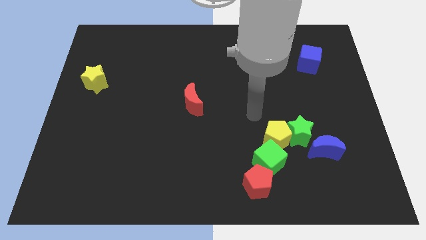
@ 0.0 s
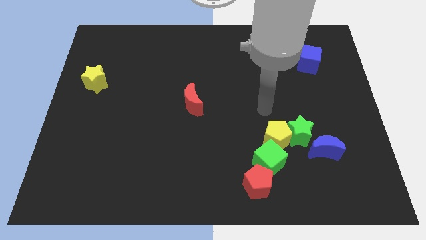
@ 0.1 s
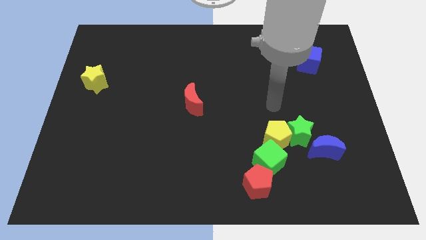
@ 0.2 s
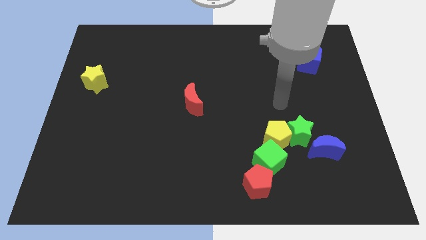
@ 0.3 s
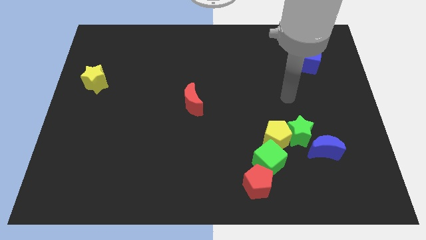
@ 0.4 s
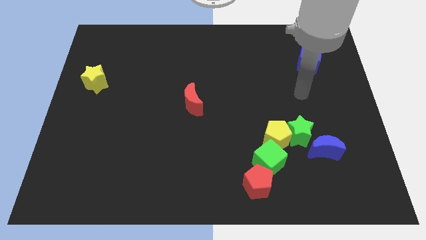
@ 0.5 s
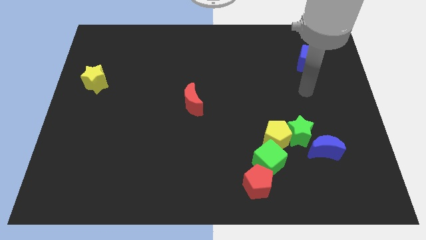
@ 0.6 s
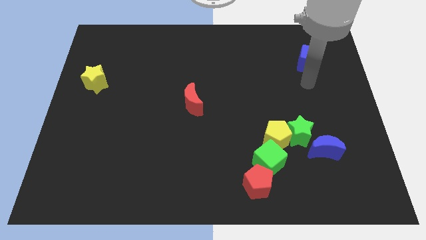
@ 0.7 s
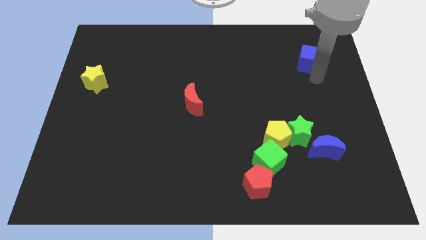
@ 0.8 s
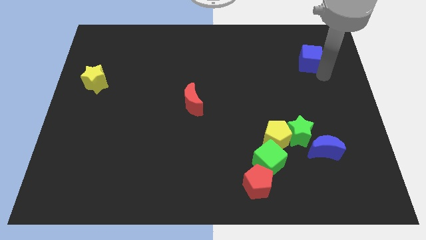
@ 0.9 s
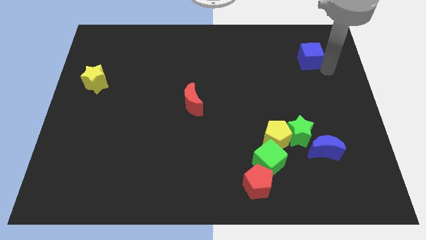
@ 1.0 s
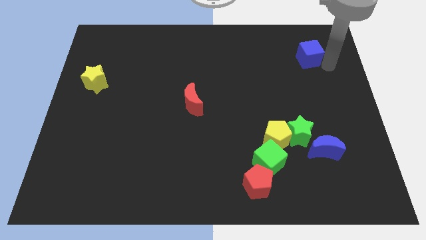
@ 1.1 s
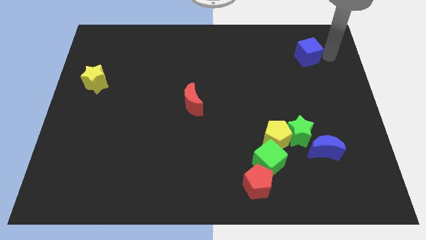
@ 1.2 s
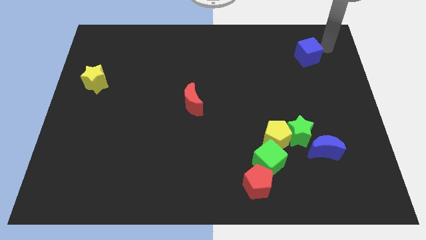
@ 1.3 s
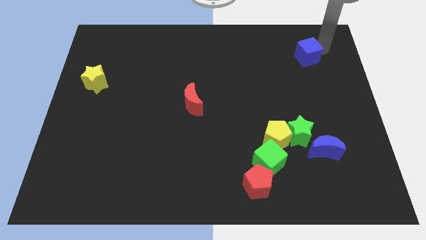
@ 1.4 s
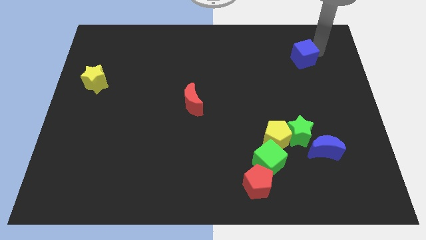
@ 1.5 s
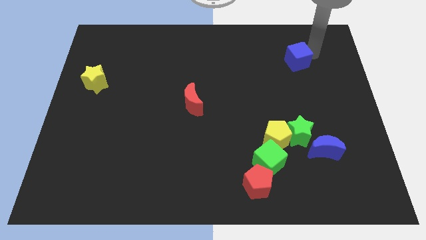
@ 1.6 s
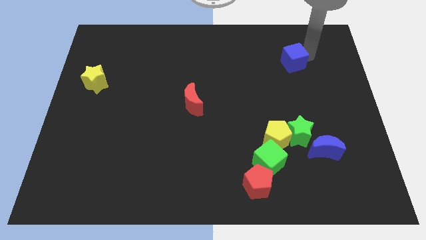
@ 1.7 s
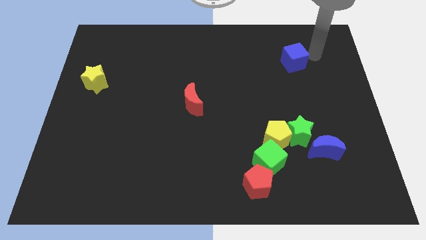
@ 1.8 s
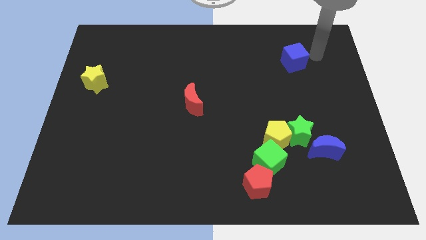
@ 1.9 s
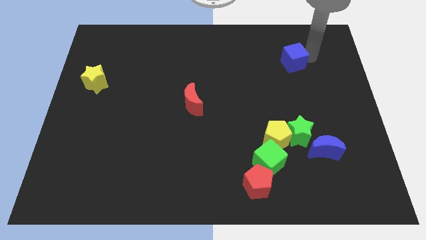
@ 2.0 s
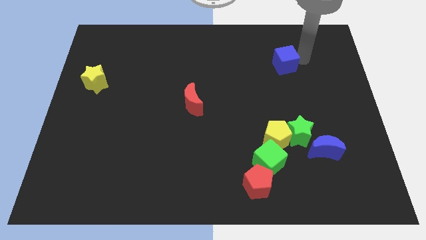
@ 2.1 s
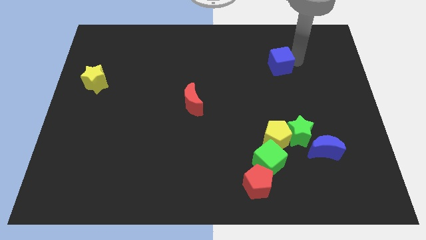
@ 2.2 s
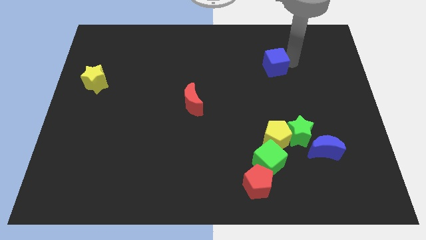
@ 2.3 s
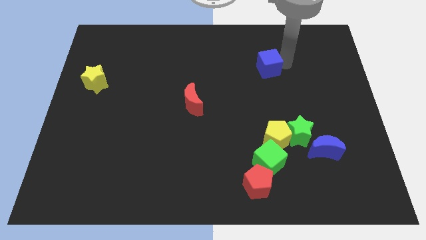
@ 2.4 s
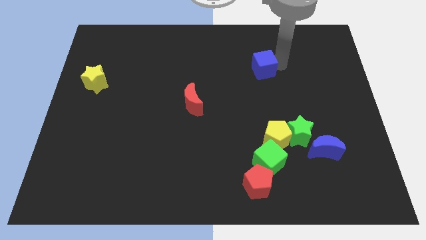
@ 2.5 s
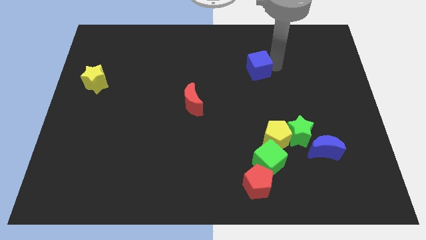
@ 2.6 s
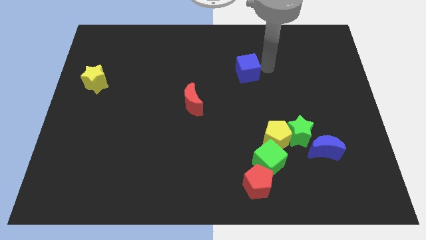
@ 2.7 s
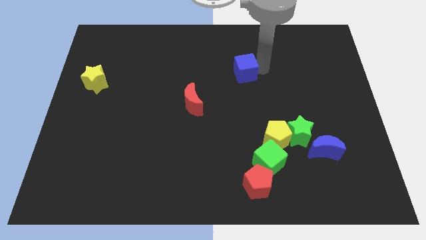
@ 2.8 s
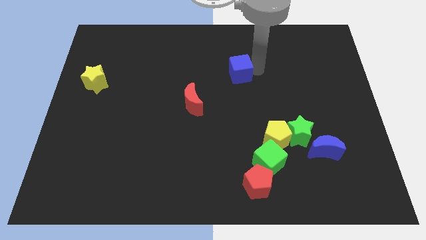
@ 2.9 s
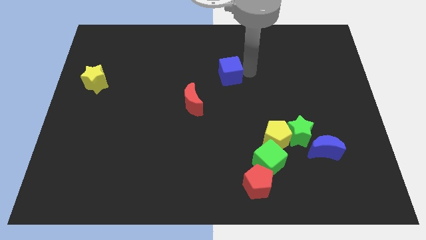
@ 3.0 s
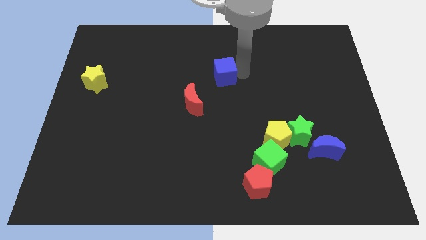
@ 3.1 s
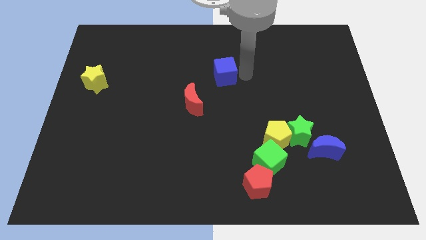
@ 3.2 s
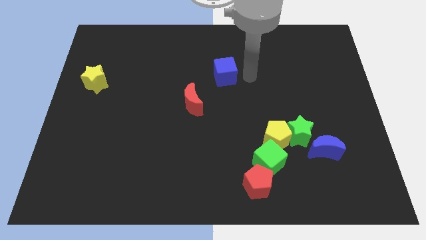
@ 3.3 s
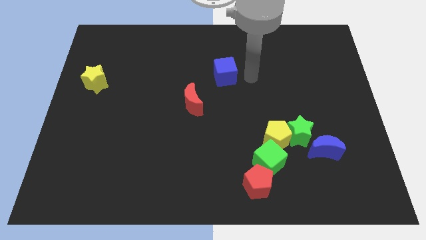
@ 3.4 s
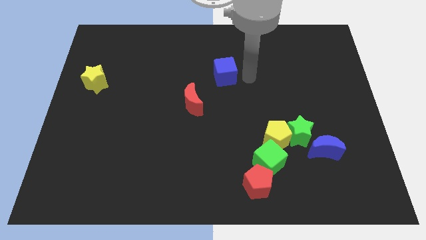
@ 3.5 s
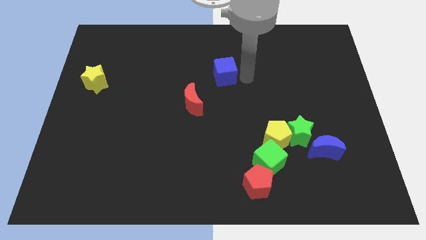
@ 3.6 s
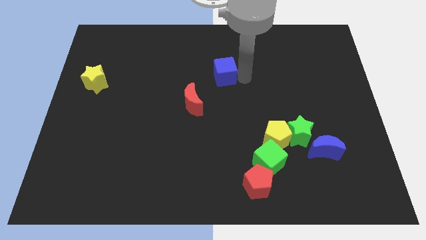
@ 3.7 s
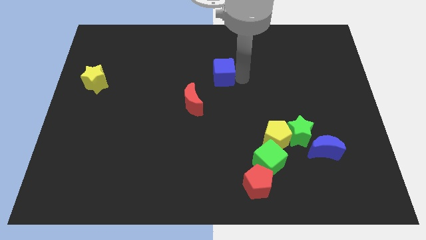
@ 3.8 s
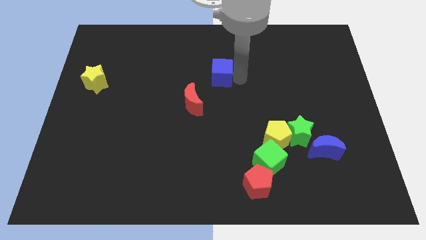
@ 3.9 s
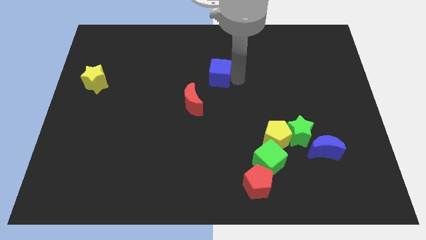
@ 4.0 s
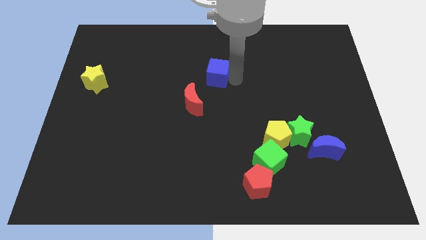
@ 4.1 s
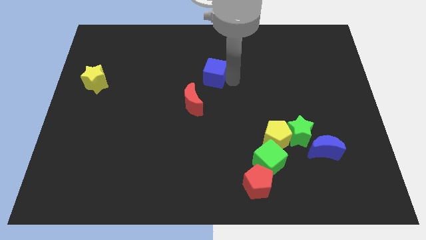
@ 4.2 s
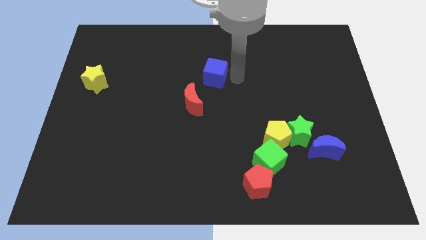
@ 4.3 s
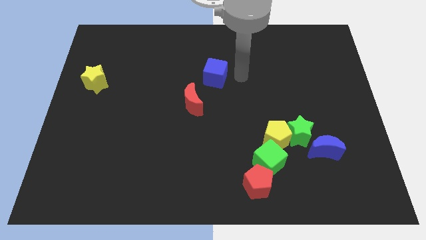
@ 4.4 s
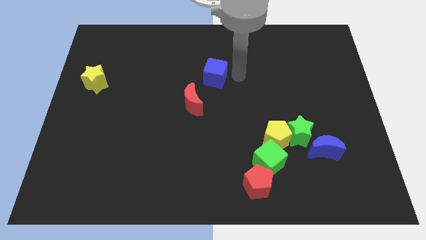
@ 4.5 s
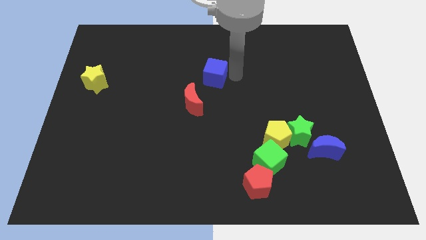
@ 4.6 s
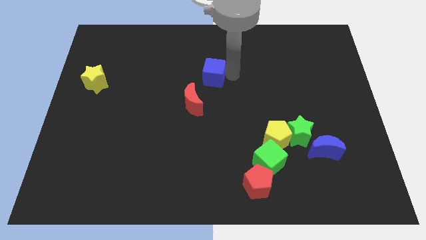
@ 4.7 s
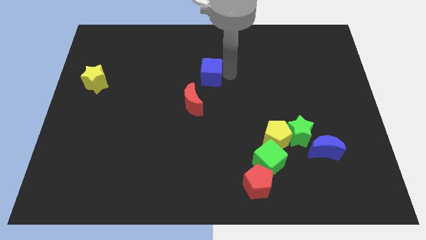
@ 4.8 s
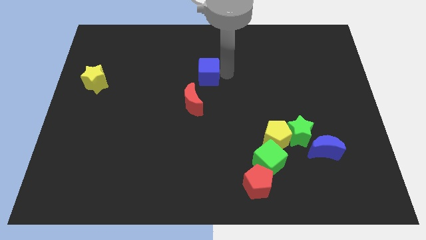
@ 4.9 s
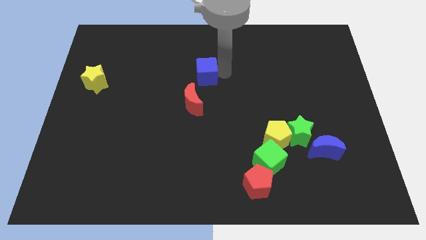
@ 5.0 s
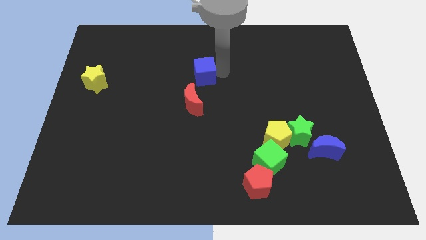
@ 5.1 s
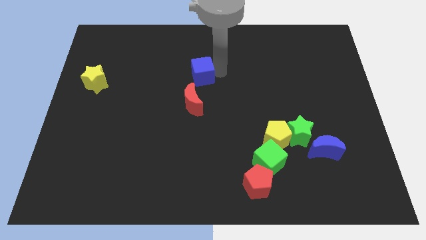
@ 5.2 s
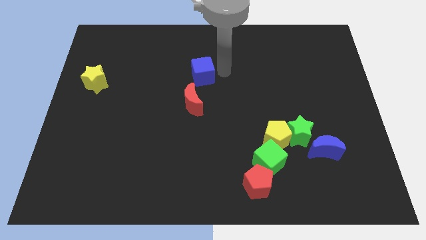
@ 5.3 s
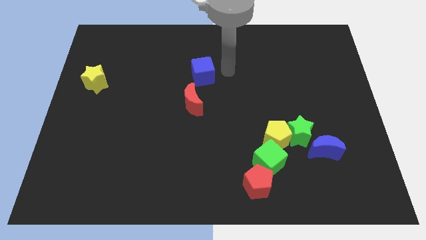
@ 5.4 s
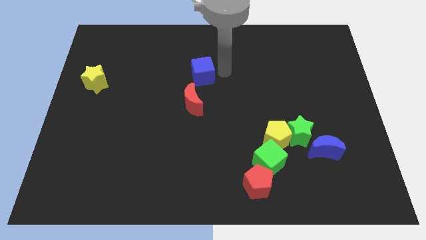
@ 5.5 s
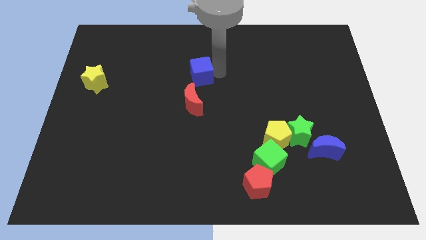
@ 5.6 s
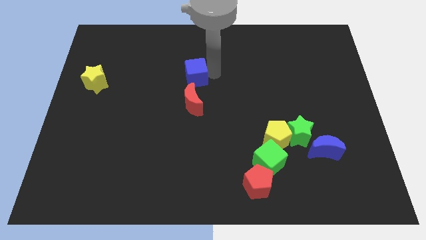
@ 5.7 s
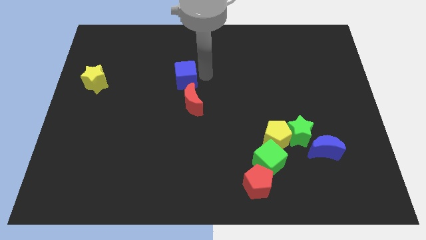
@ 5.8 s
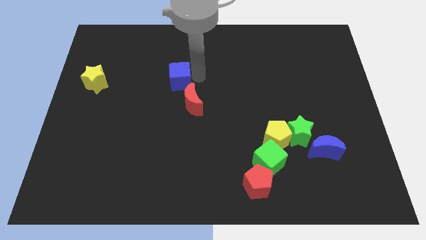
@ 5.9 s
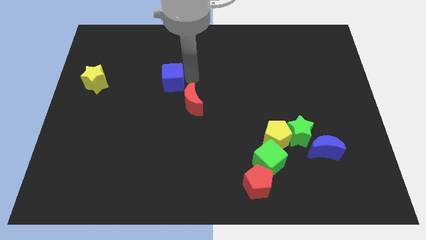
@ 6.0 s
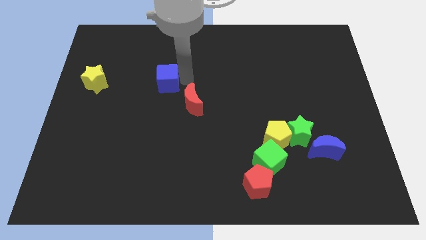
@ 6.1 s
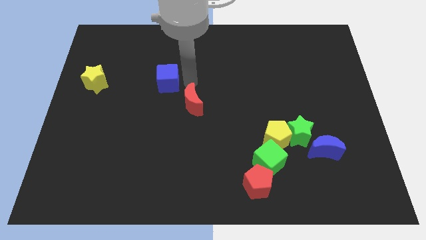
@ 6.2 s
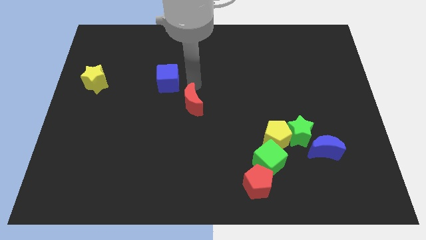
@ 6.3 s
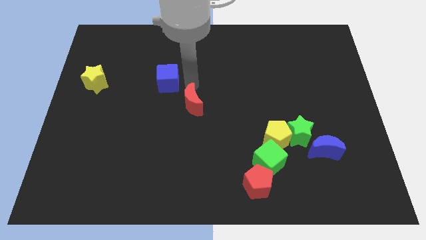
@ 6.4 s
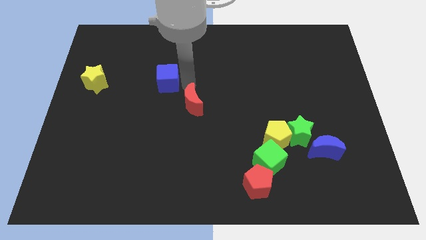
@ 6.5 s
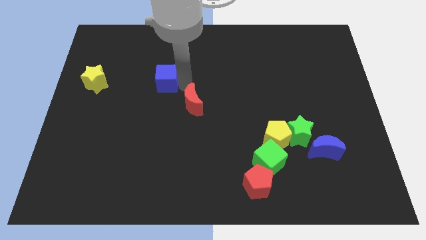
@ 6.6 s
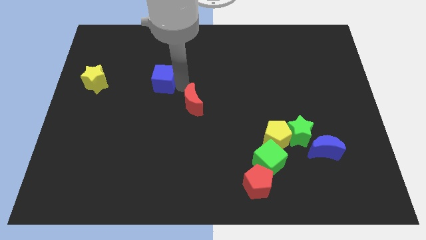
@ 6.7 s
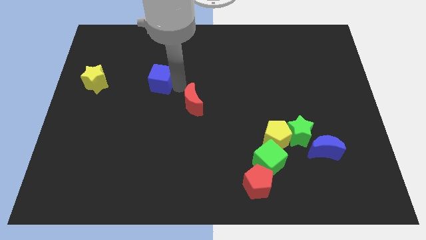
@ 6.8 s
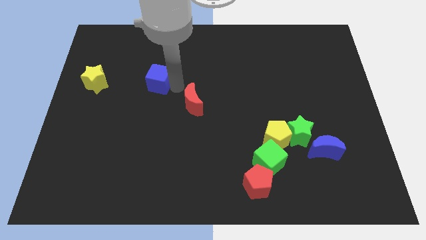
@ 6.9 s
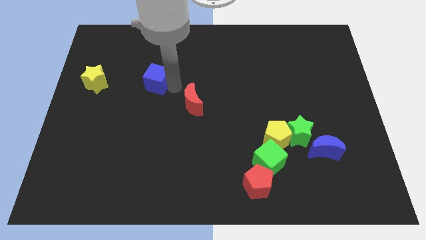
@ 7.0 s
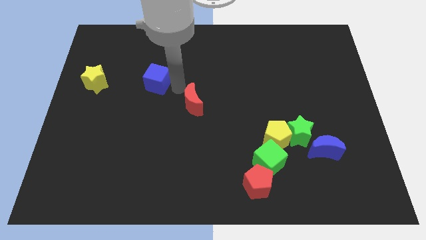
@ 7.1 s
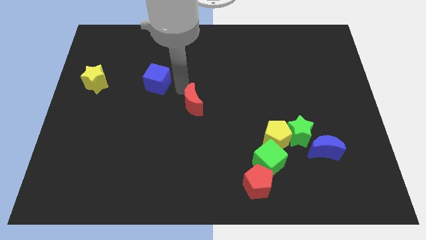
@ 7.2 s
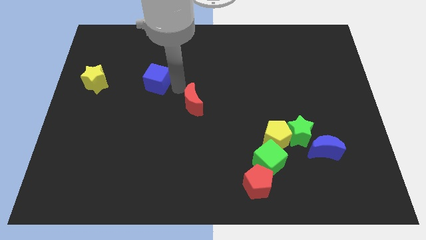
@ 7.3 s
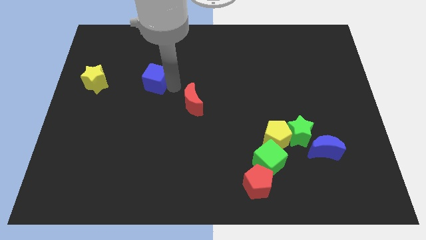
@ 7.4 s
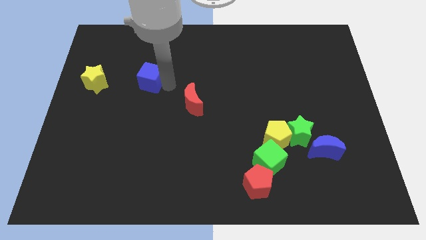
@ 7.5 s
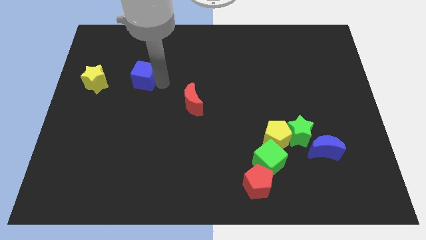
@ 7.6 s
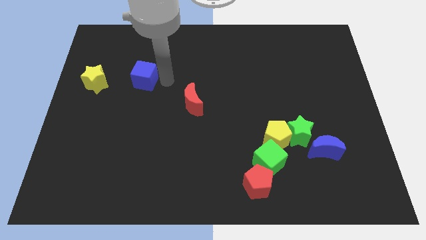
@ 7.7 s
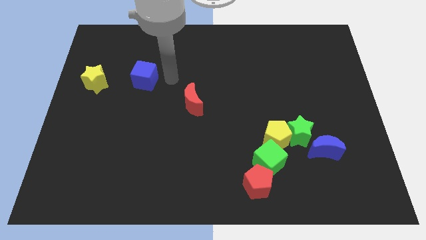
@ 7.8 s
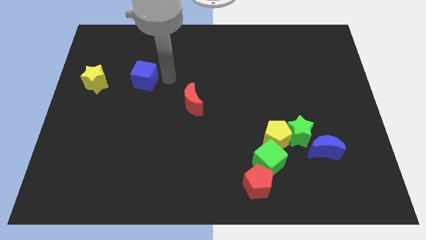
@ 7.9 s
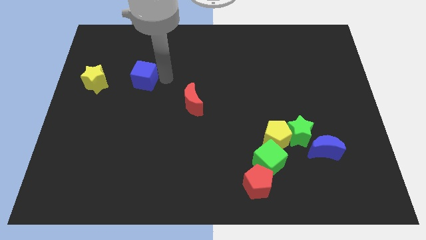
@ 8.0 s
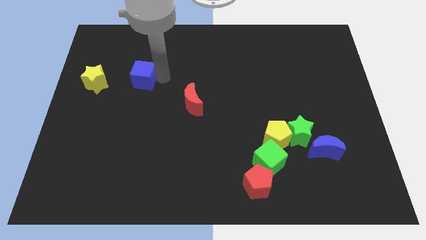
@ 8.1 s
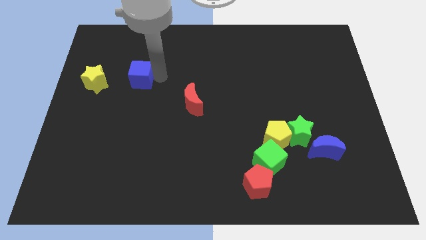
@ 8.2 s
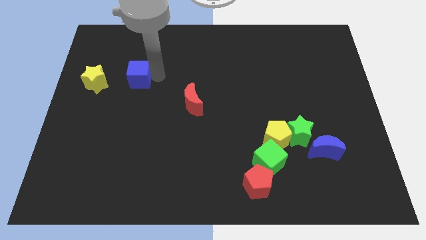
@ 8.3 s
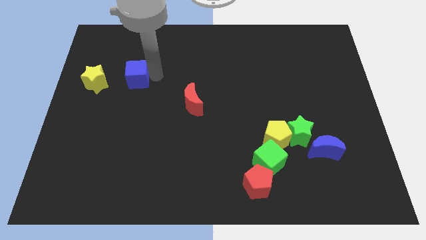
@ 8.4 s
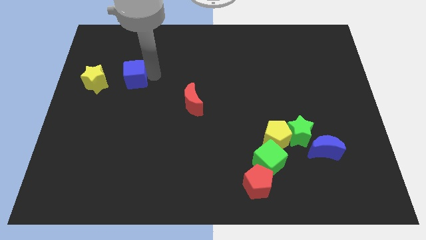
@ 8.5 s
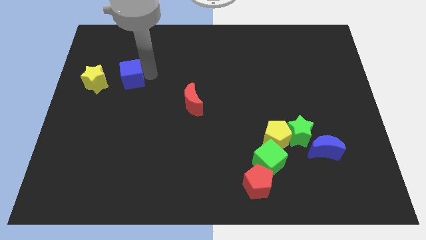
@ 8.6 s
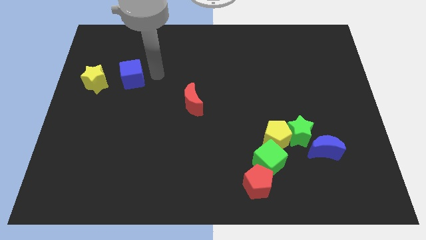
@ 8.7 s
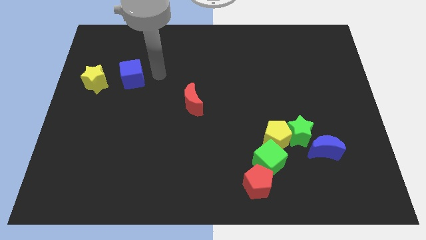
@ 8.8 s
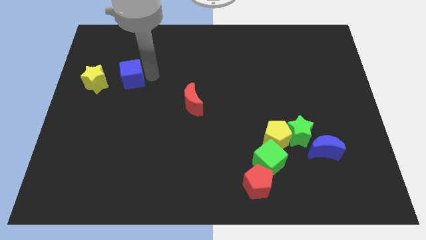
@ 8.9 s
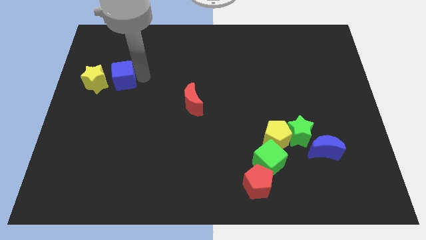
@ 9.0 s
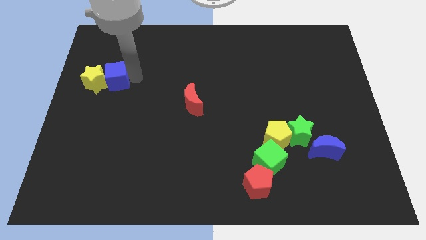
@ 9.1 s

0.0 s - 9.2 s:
put the blue cube close to the yellow star
